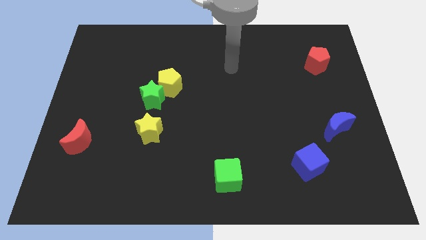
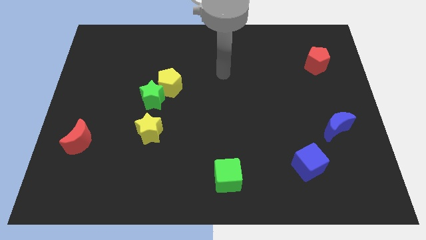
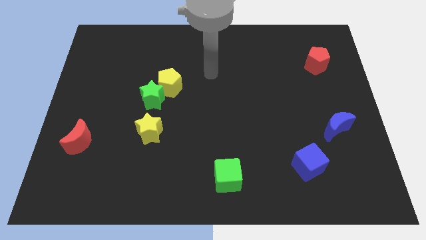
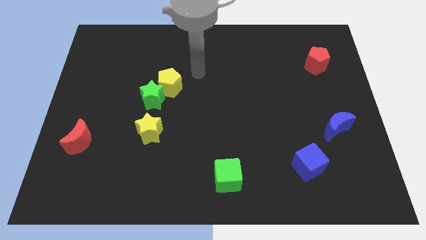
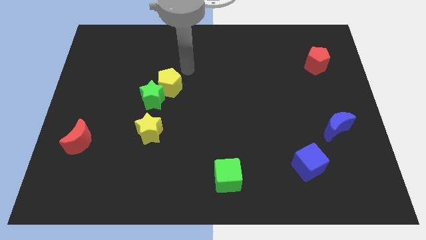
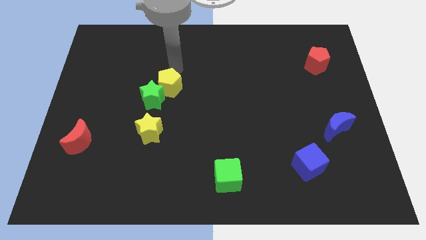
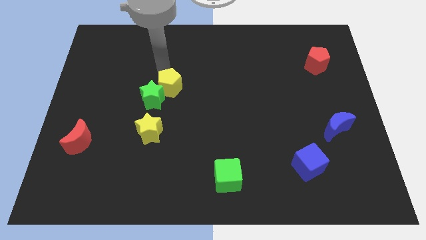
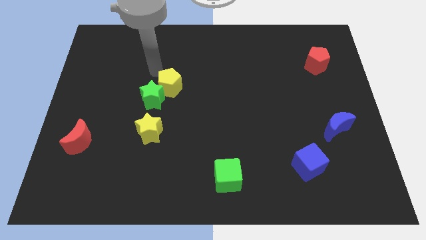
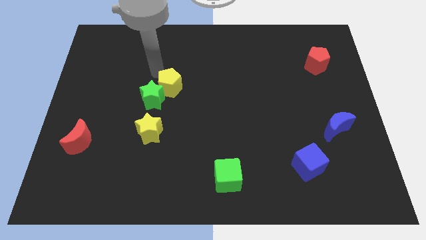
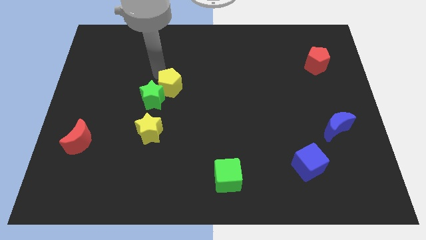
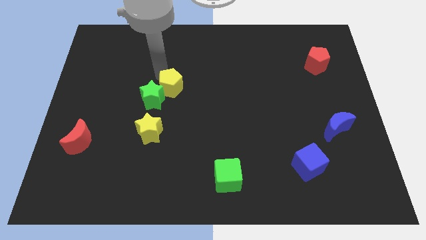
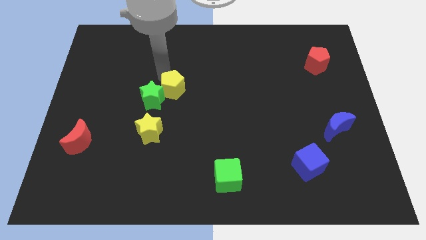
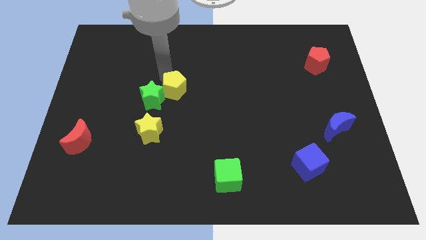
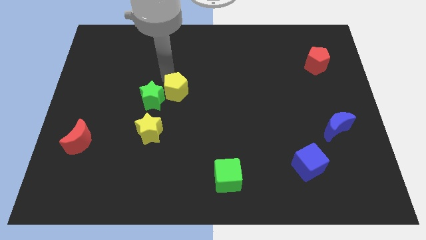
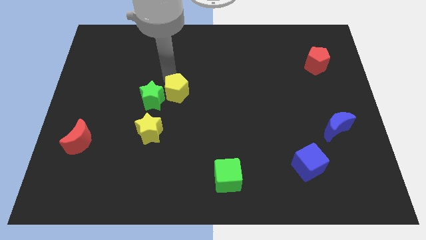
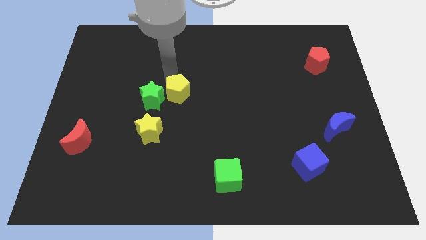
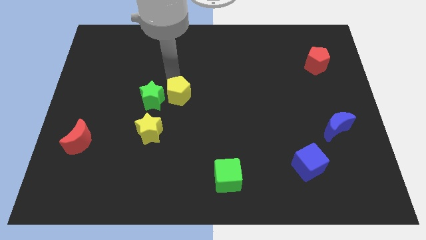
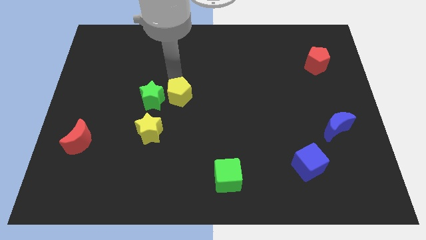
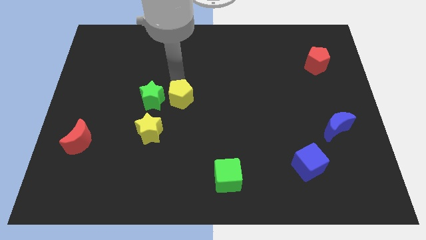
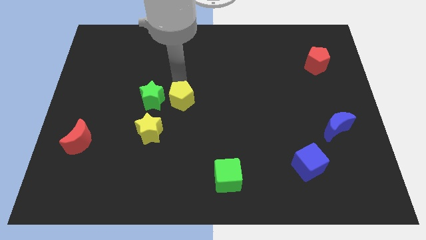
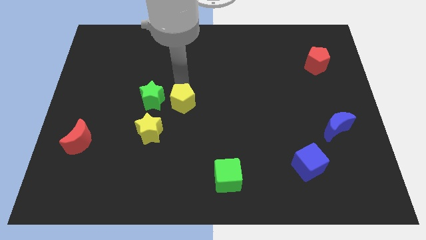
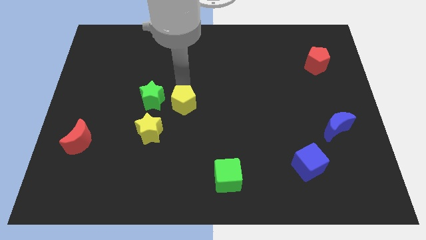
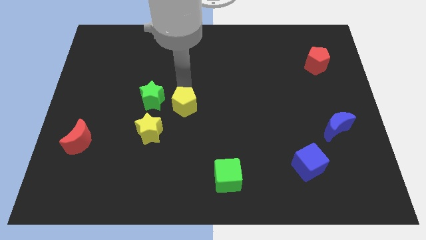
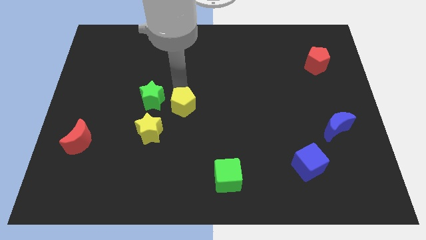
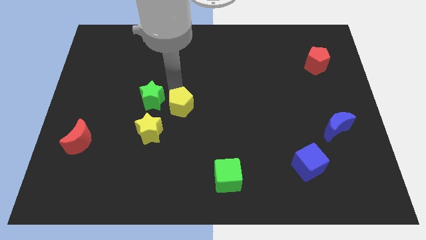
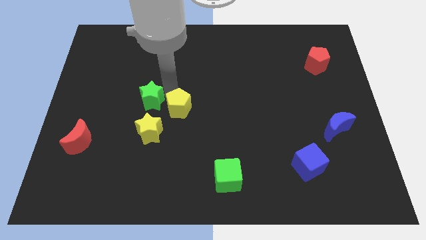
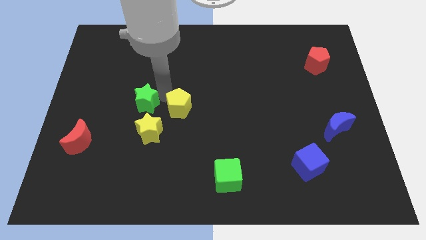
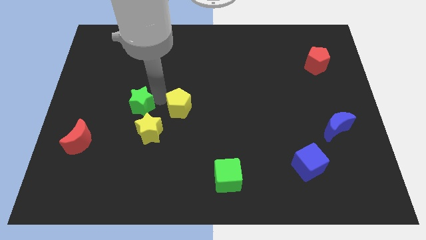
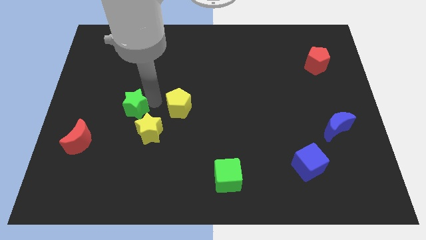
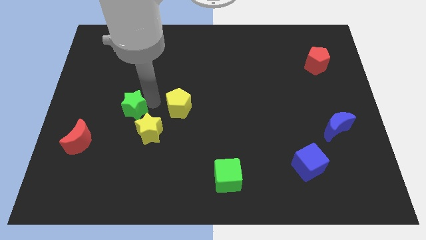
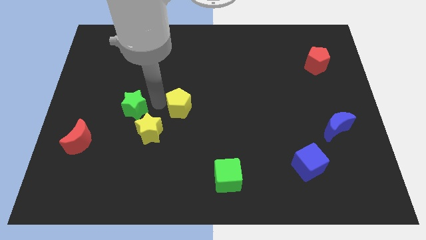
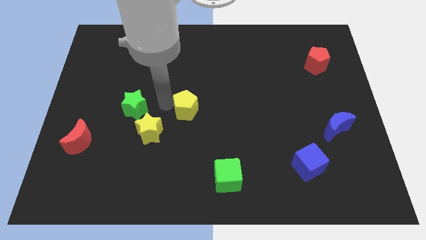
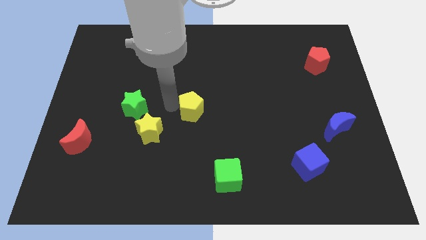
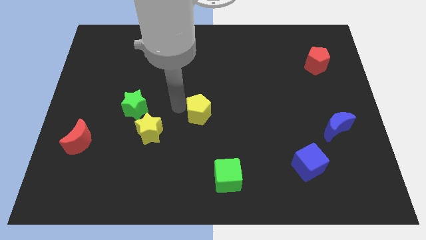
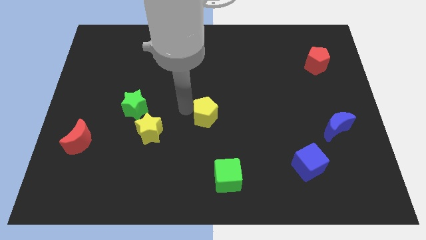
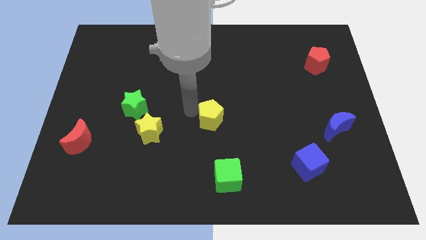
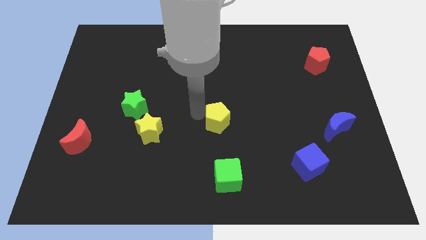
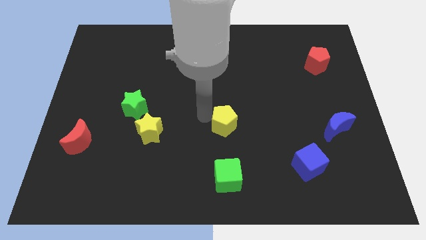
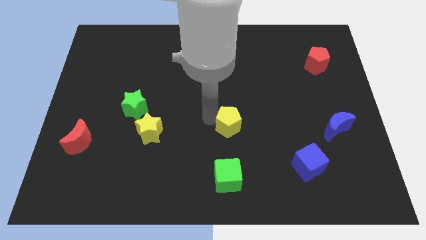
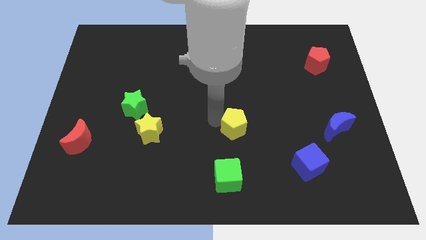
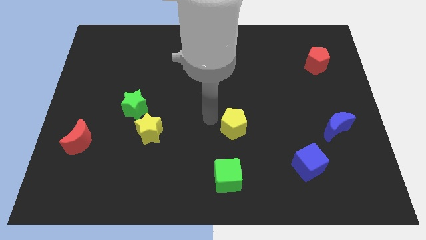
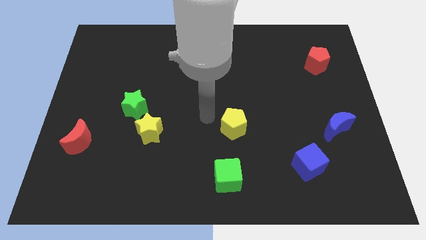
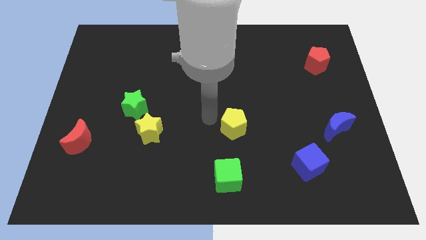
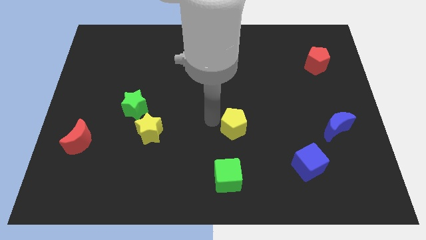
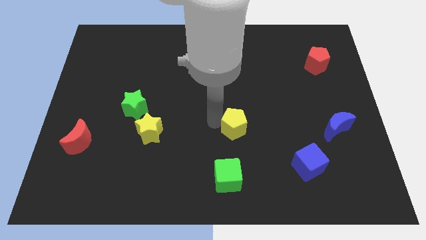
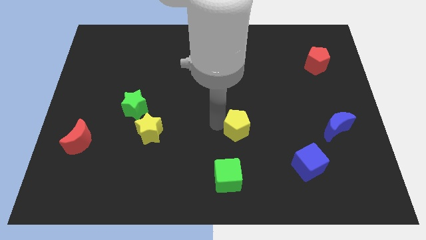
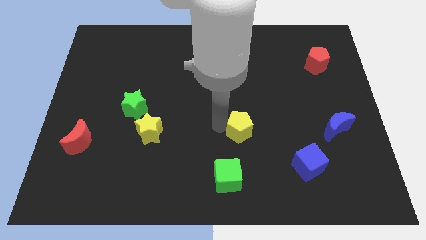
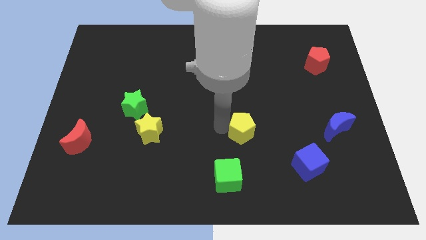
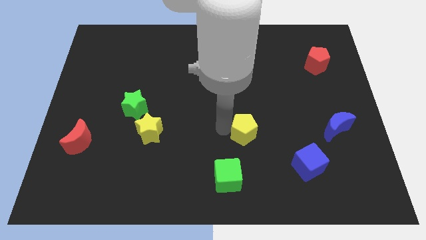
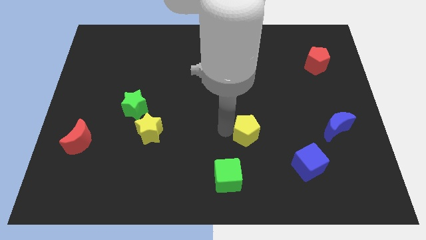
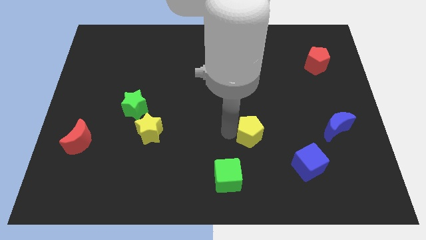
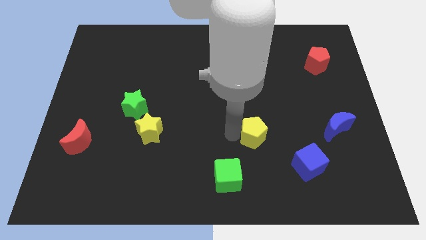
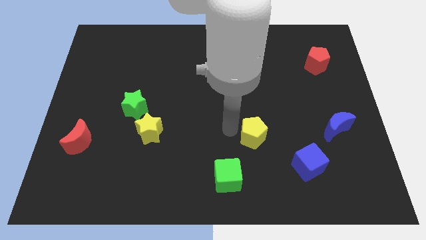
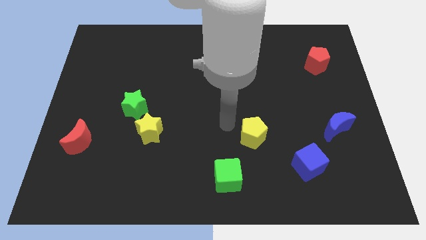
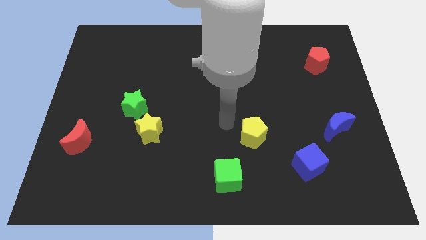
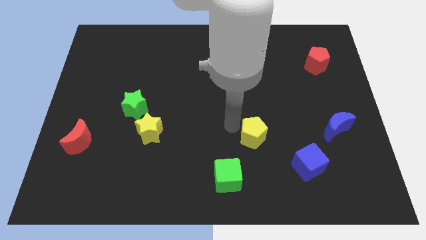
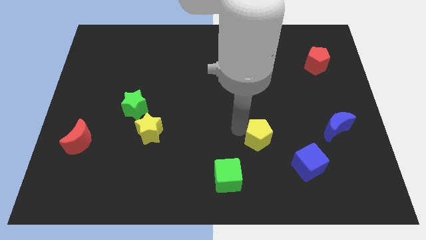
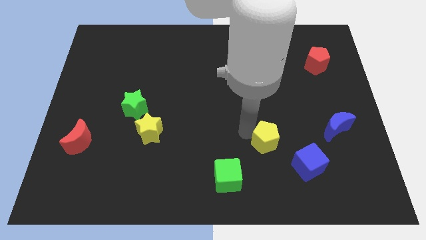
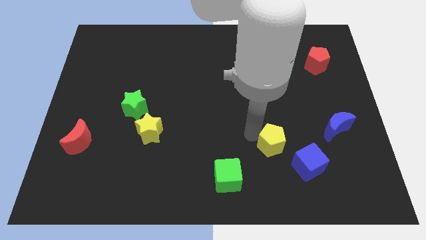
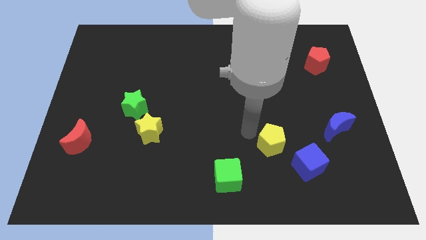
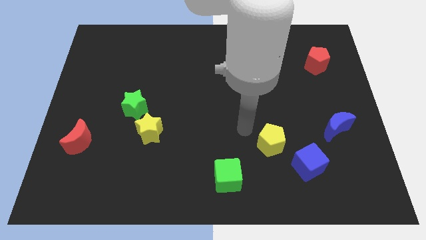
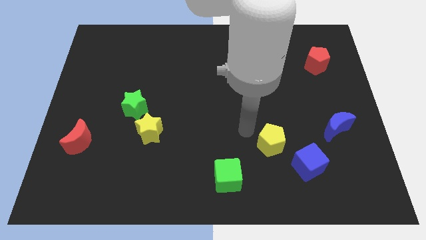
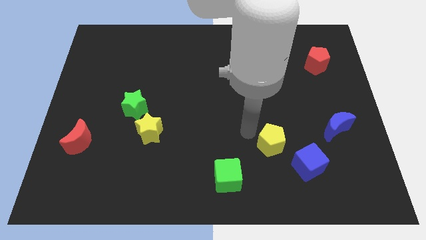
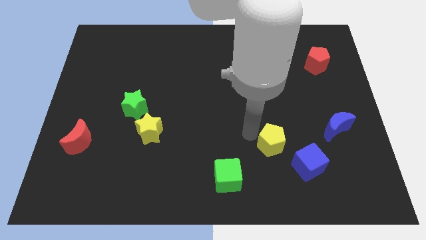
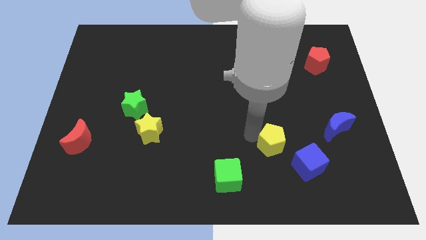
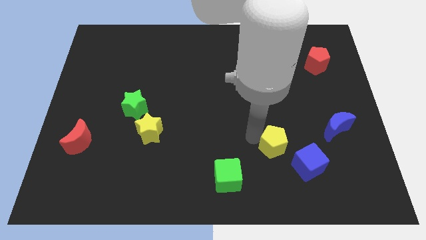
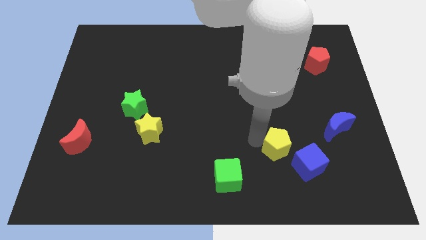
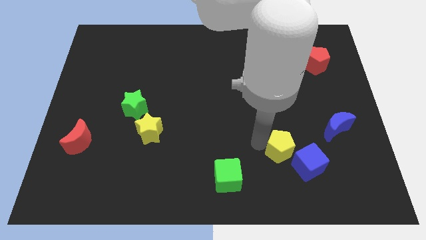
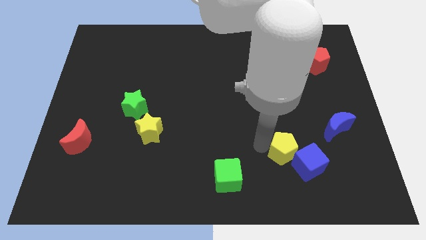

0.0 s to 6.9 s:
push the yellow pentagon next to the blue cube

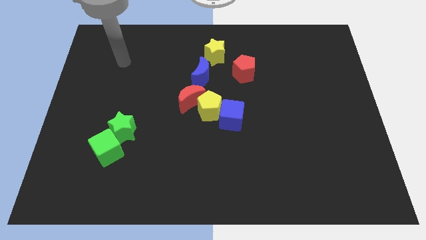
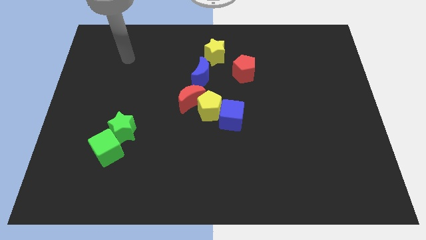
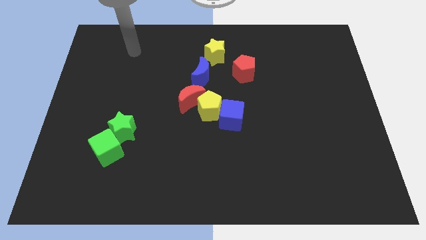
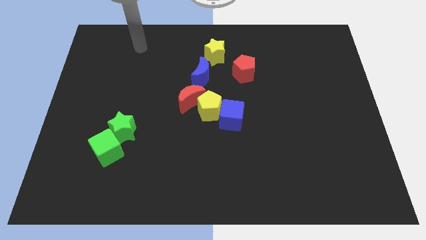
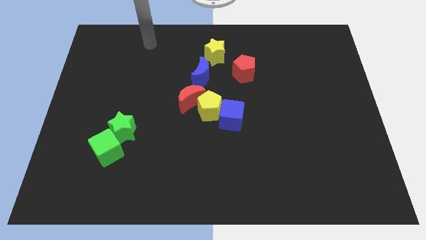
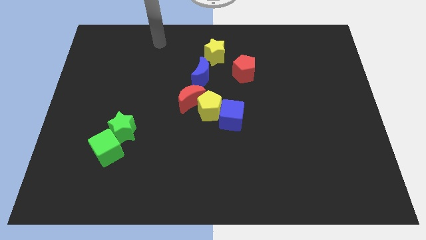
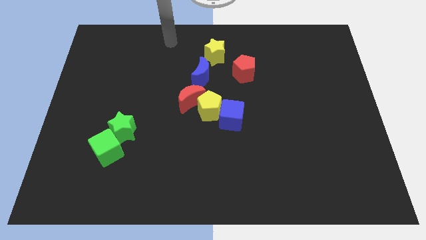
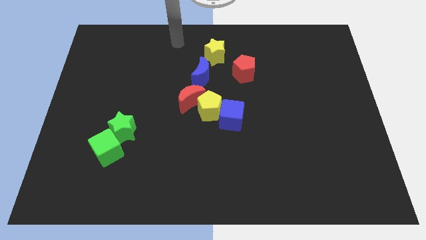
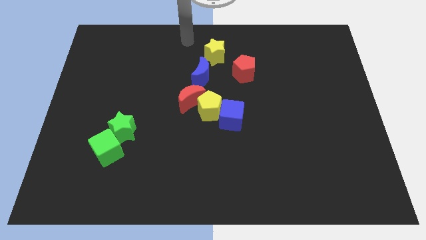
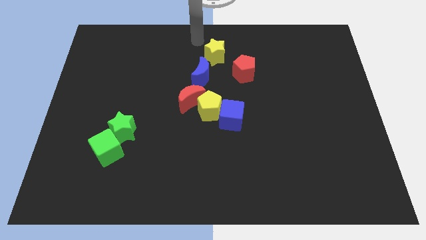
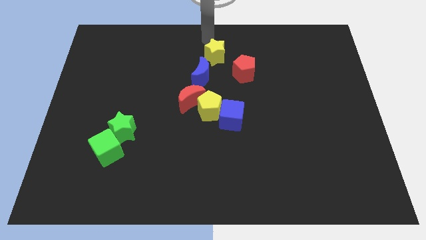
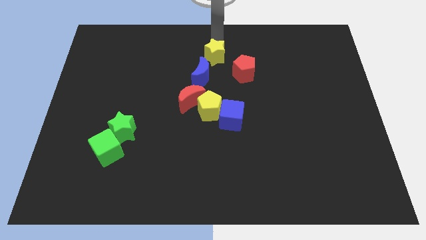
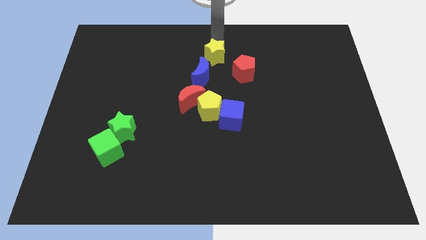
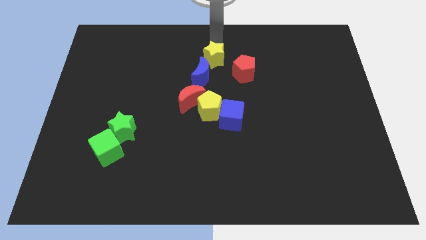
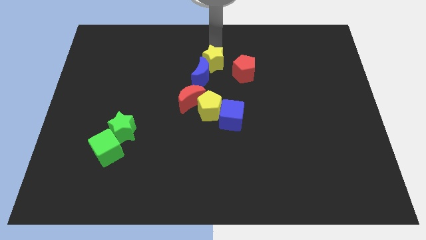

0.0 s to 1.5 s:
put the yellow star close to the blue moon
